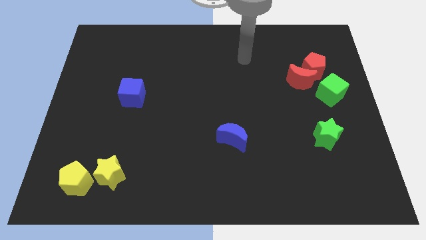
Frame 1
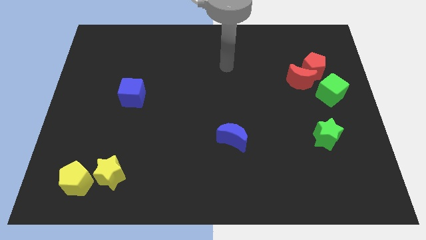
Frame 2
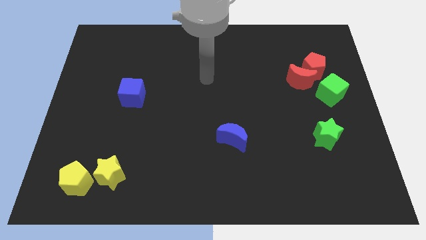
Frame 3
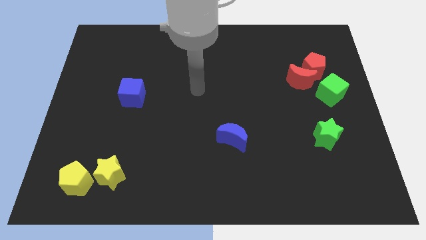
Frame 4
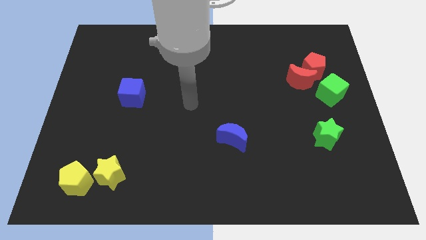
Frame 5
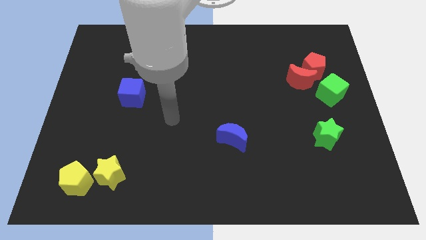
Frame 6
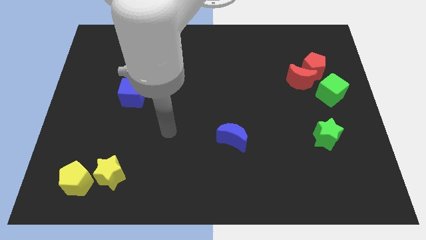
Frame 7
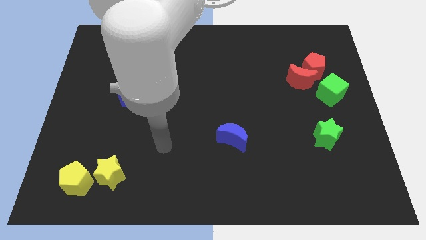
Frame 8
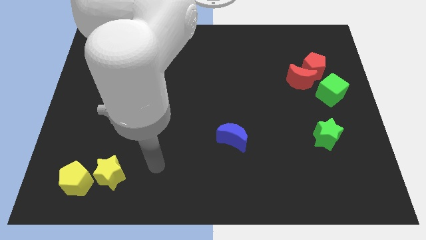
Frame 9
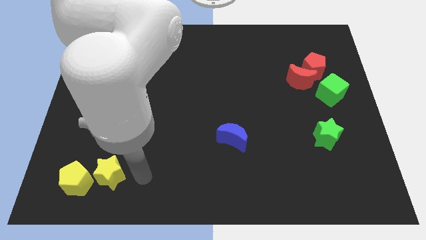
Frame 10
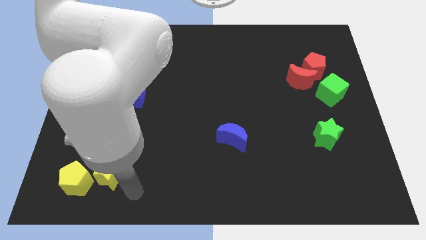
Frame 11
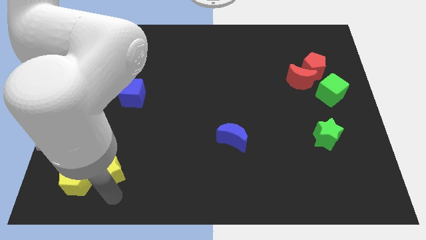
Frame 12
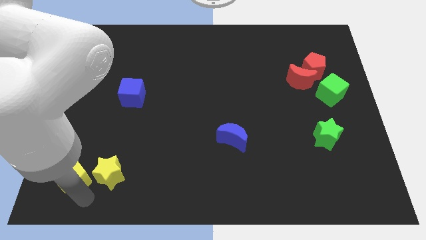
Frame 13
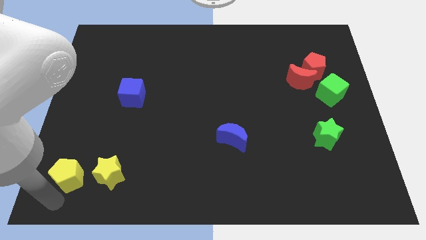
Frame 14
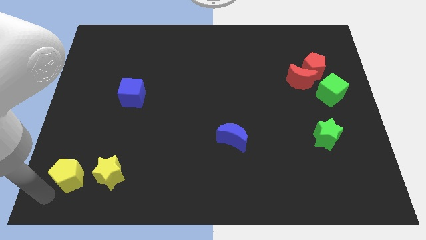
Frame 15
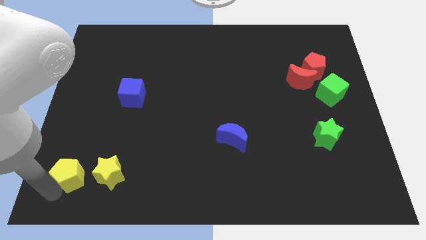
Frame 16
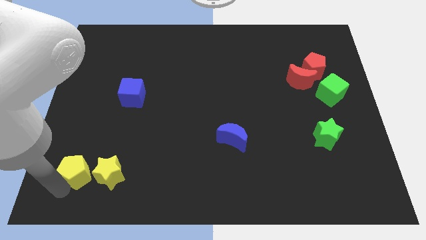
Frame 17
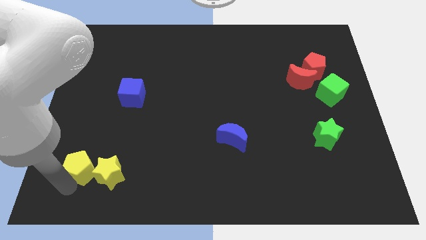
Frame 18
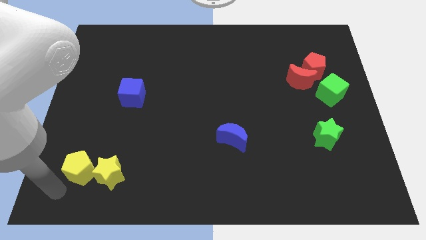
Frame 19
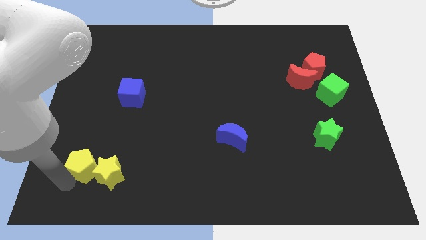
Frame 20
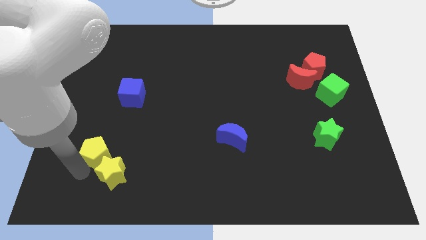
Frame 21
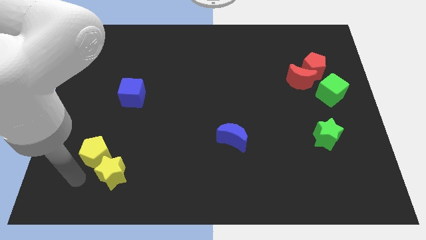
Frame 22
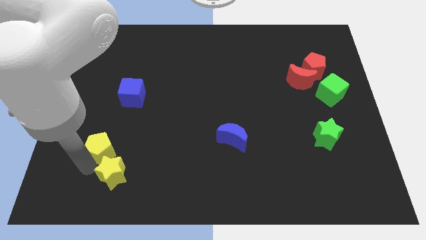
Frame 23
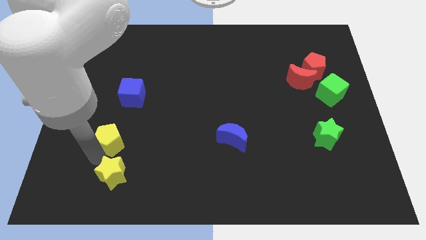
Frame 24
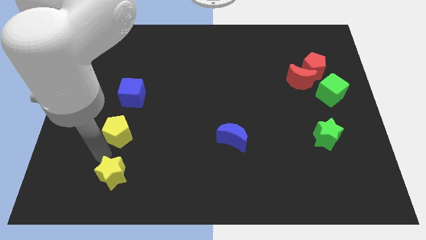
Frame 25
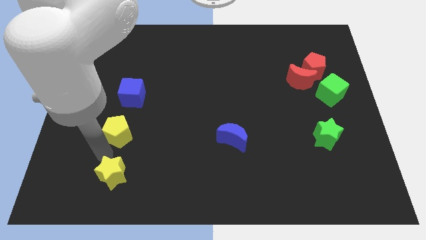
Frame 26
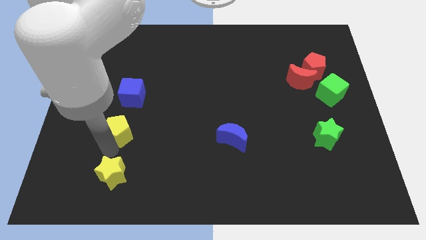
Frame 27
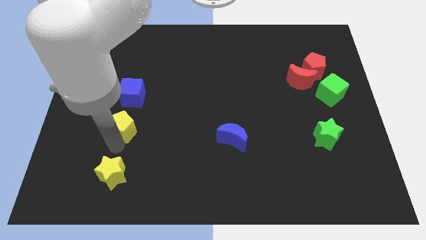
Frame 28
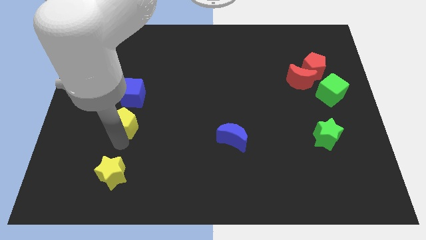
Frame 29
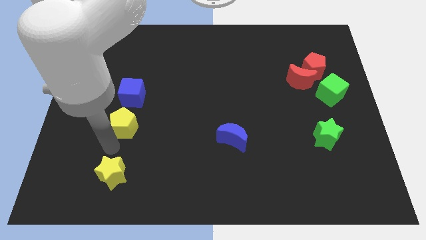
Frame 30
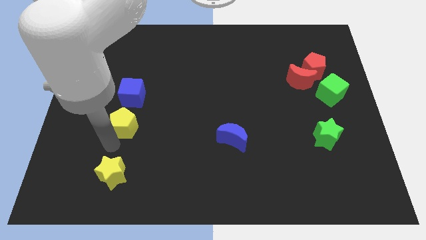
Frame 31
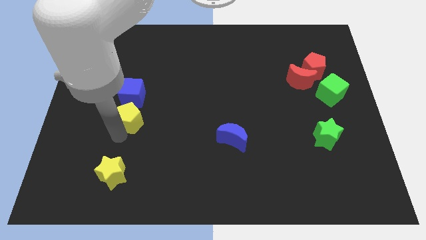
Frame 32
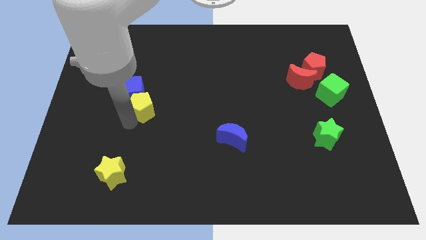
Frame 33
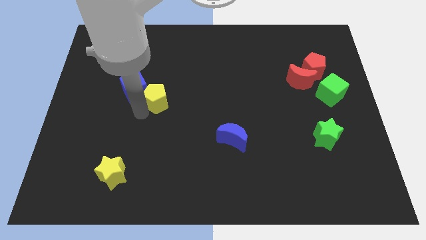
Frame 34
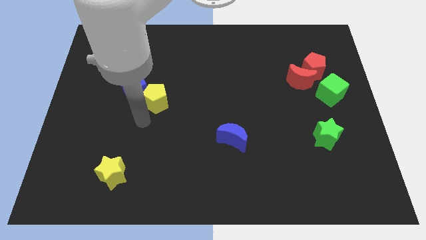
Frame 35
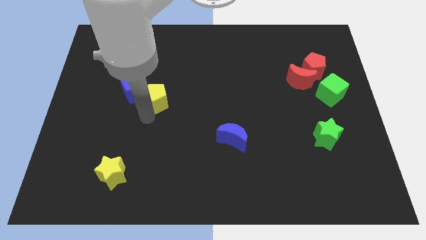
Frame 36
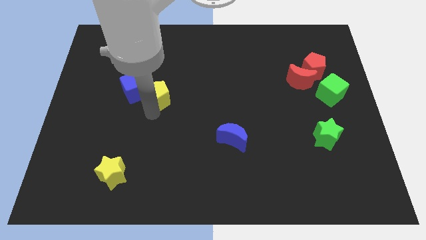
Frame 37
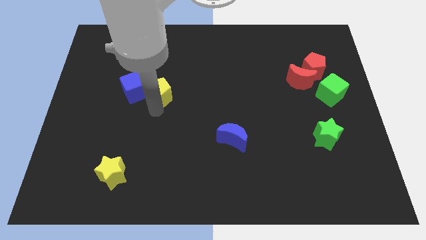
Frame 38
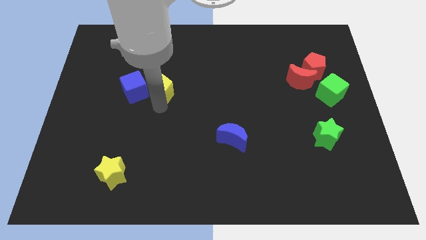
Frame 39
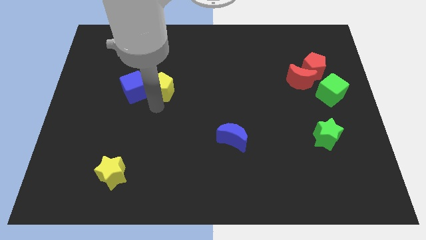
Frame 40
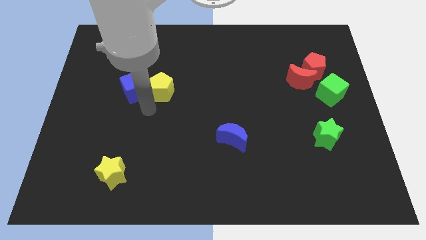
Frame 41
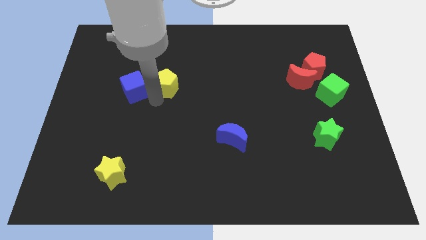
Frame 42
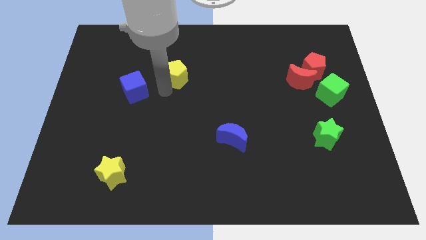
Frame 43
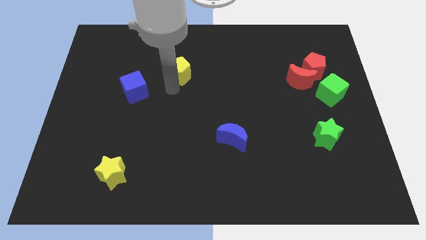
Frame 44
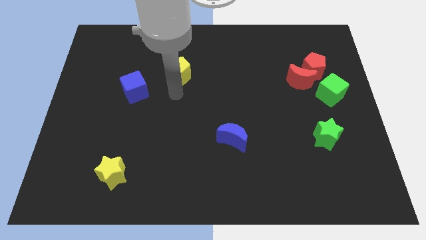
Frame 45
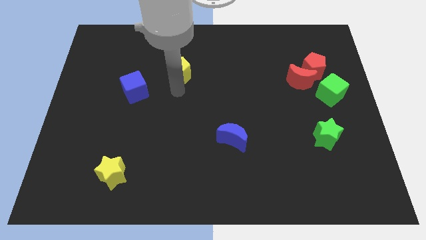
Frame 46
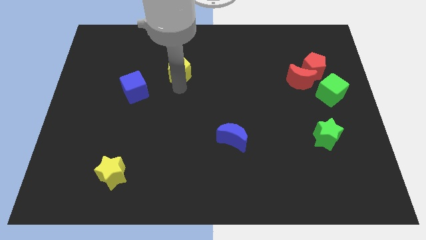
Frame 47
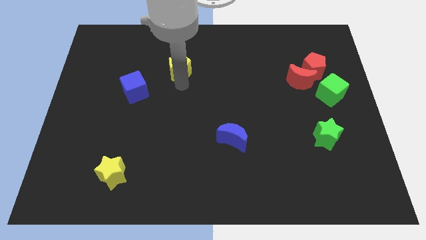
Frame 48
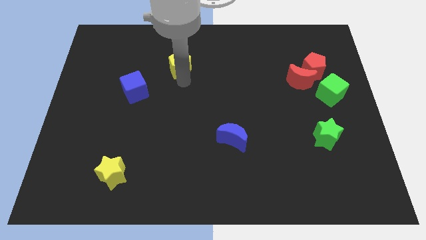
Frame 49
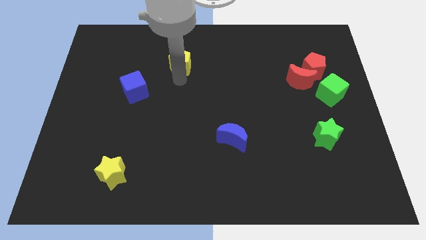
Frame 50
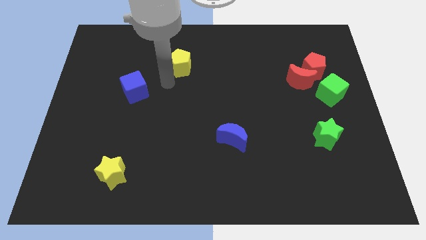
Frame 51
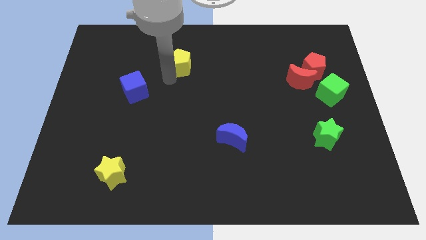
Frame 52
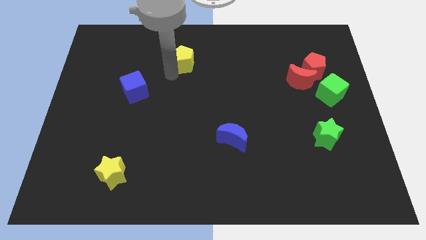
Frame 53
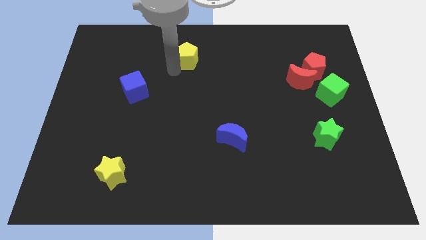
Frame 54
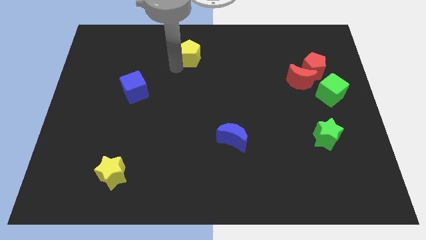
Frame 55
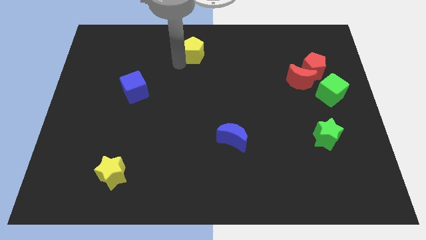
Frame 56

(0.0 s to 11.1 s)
put the yellow pentagon to the towards your base
